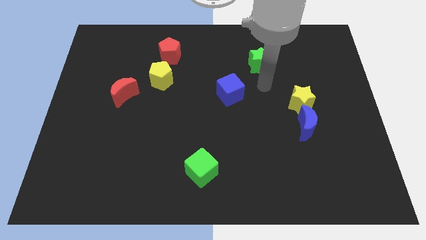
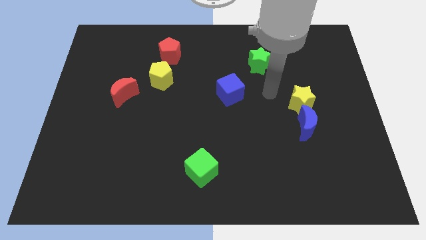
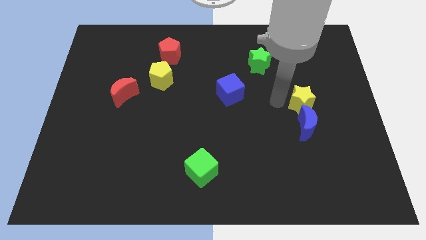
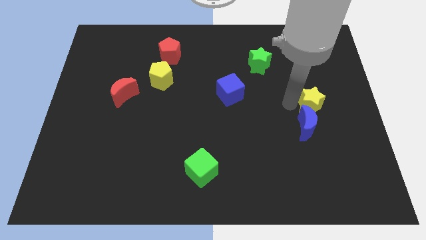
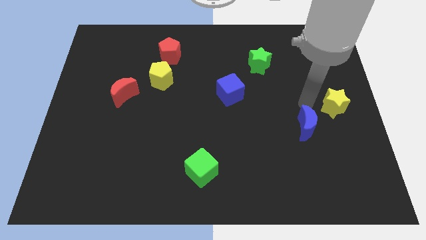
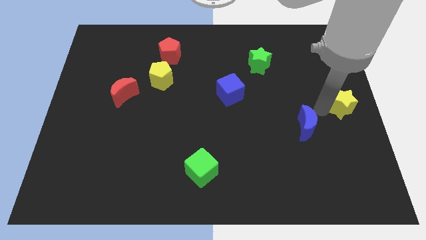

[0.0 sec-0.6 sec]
move the blue moon away from the yellow star

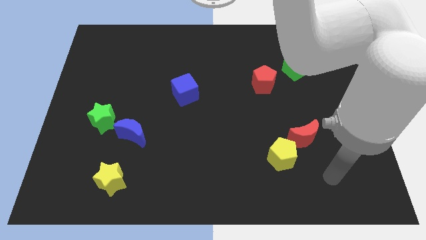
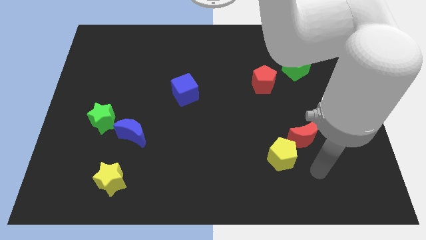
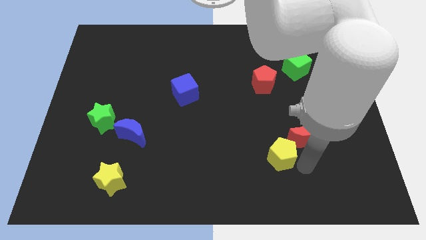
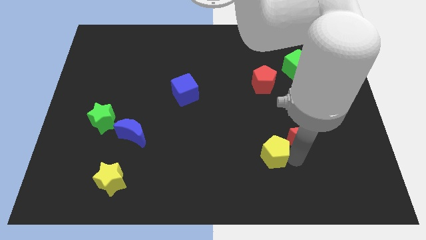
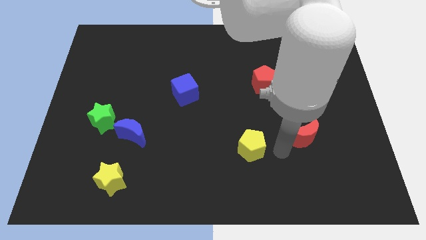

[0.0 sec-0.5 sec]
move the red moon away from the yellow pentagon

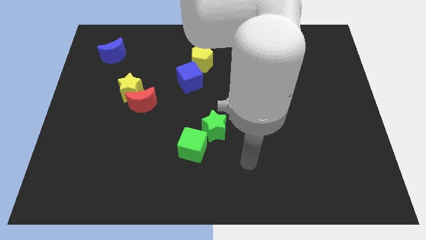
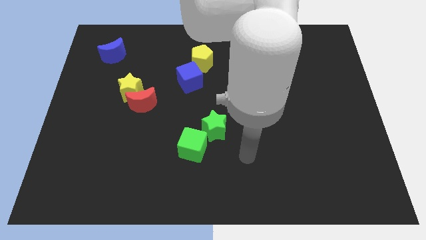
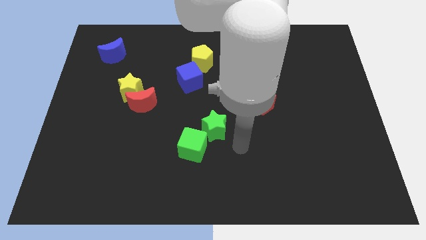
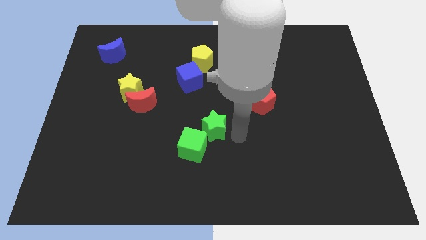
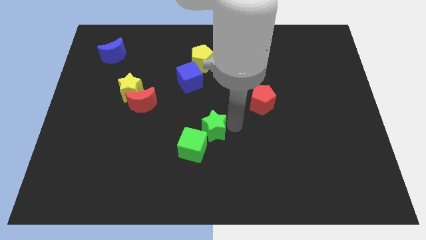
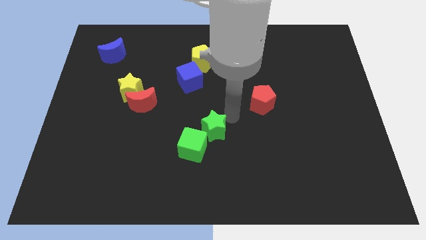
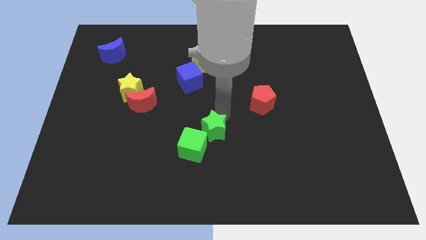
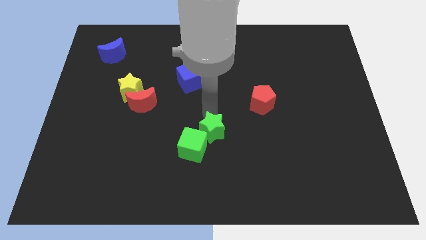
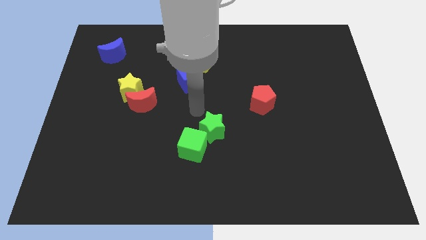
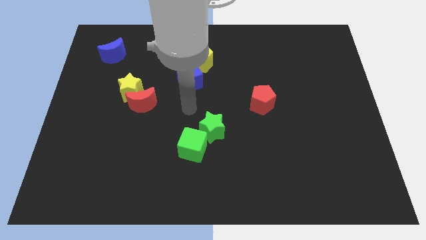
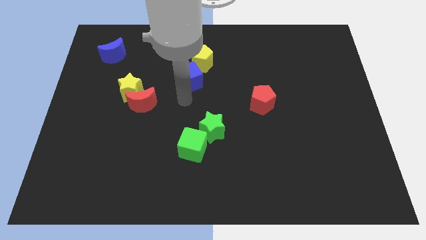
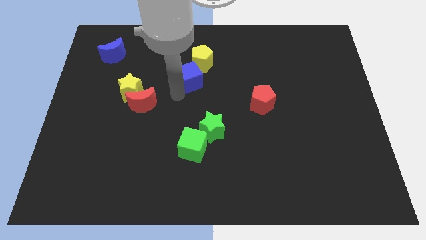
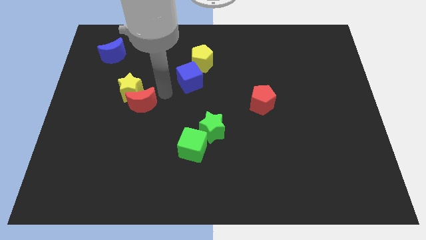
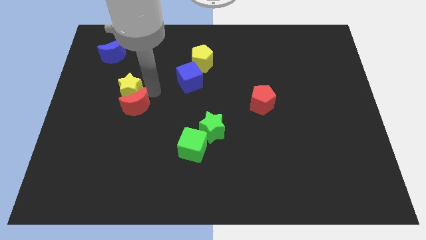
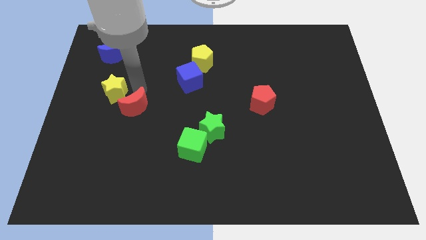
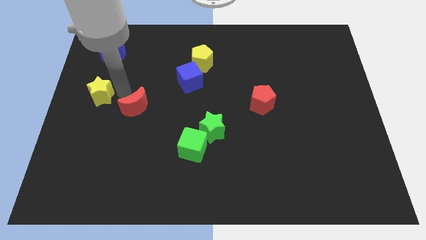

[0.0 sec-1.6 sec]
pull the red moon apart from the yellow star

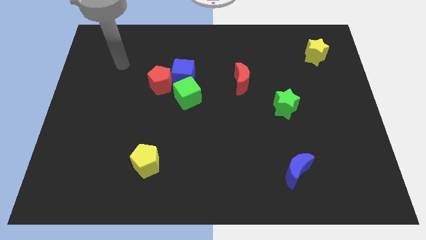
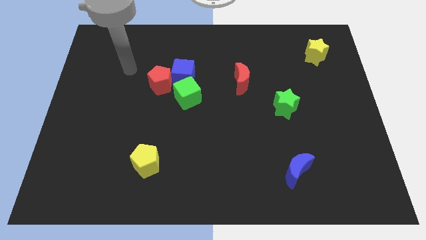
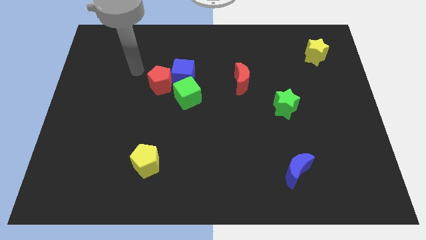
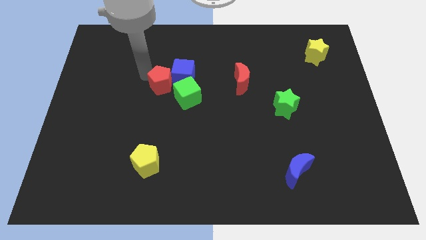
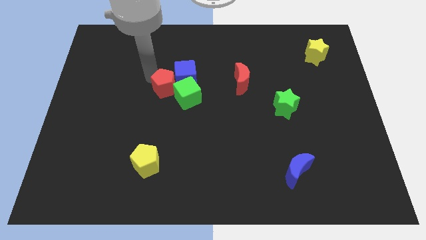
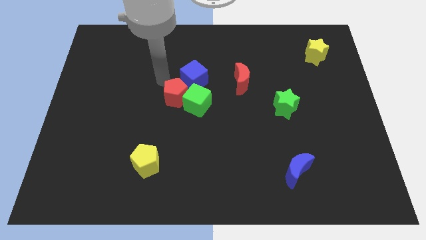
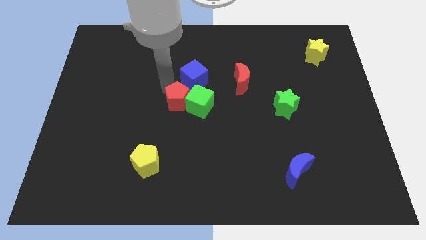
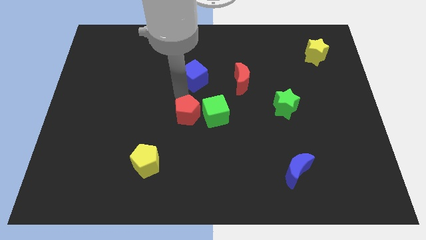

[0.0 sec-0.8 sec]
move the blue cube away from the red pentagon and green cube

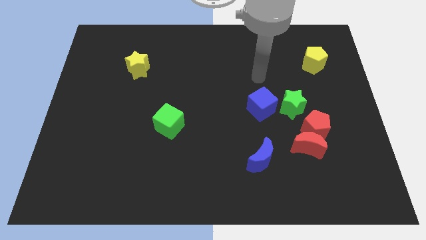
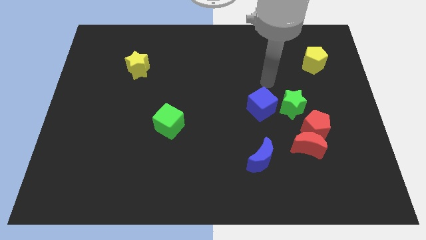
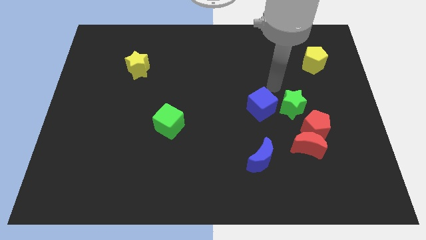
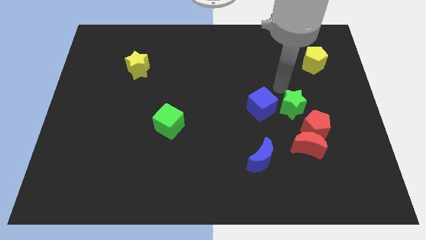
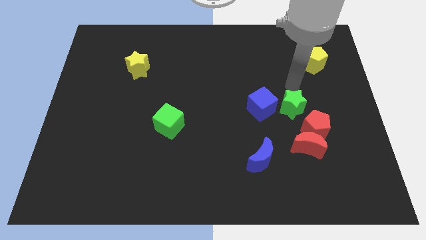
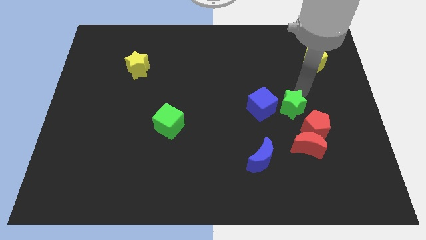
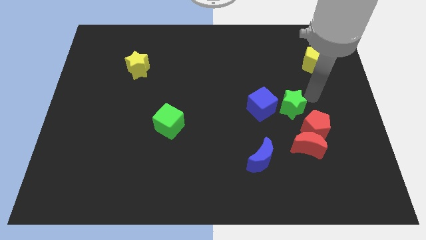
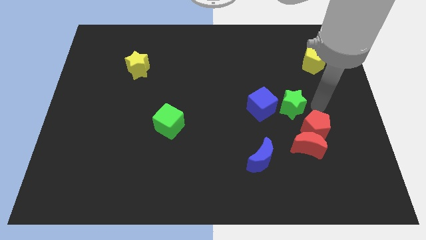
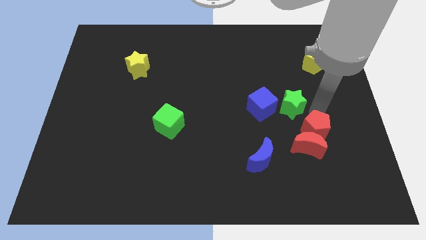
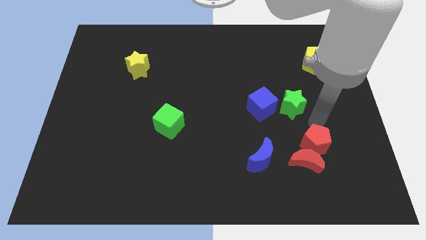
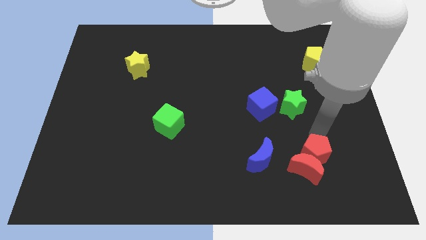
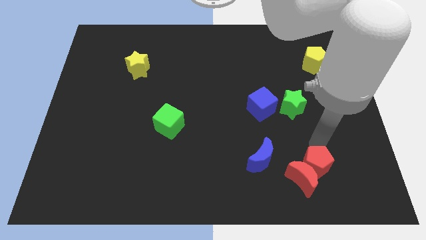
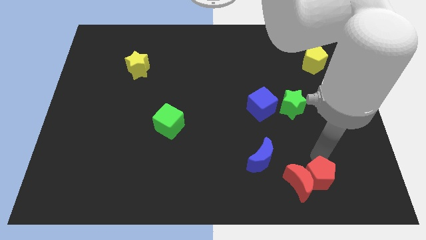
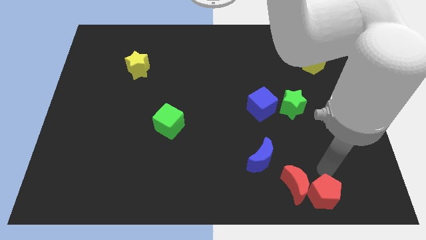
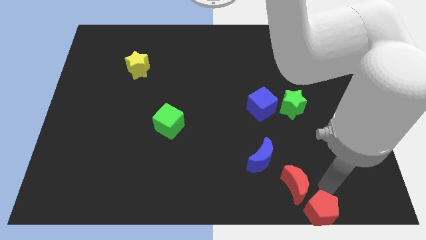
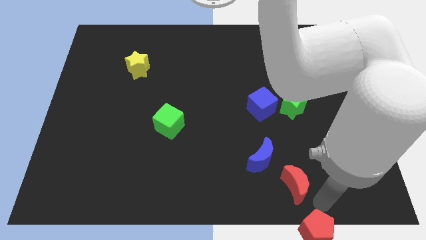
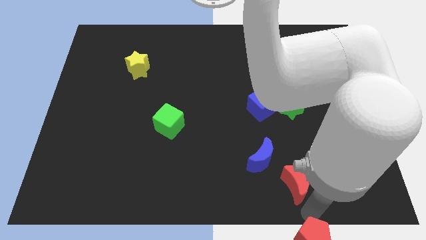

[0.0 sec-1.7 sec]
move the red moon away from the red pentagon

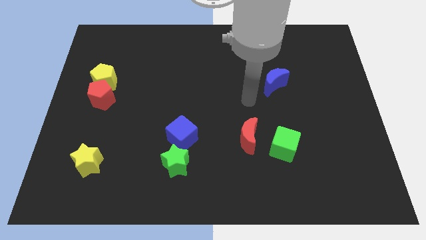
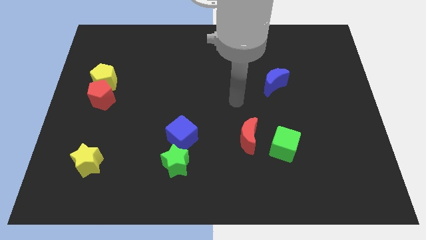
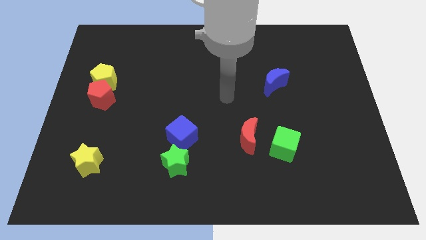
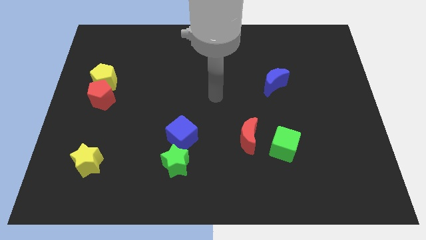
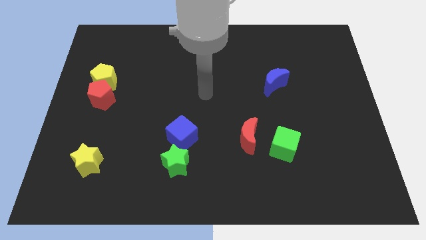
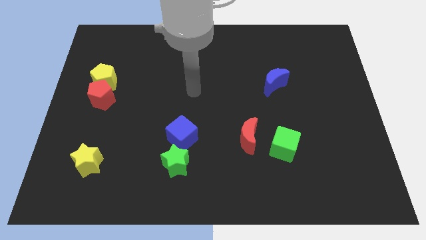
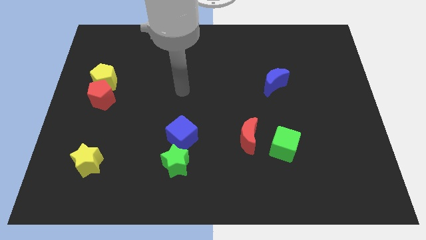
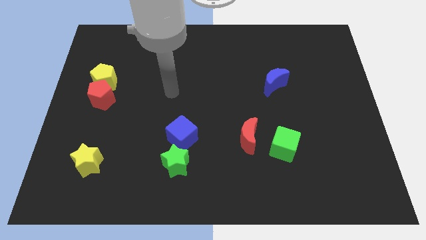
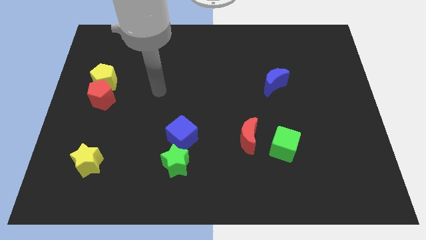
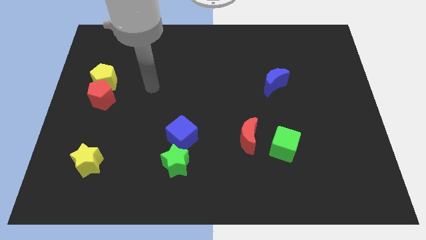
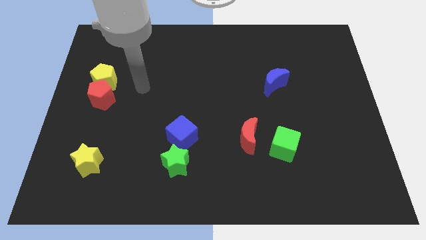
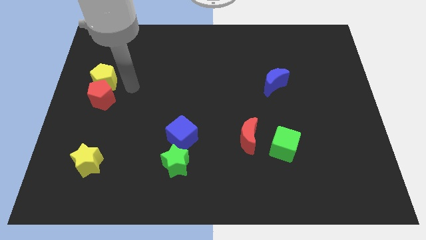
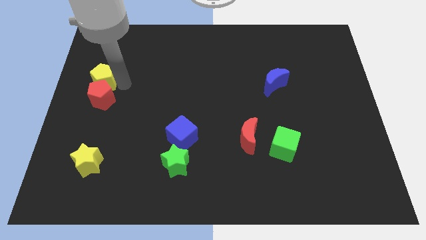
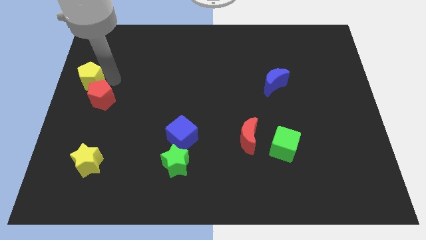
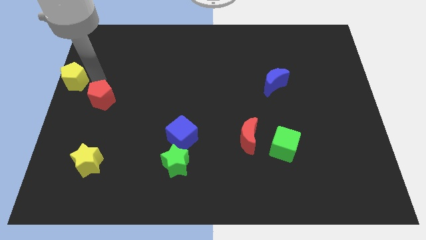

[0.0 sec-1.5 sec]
separate the red pentagon from the yellow pentagon

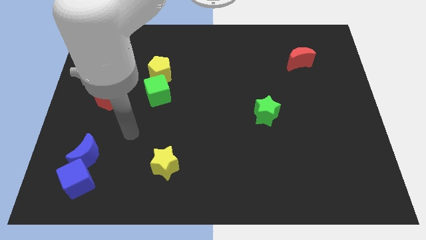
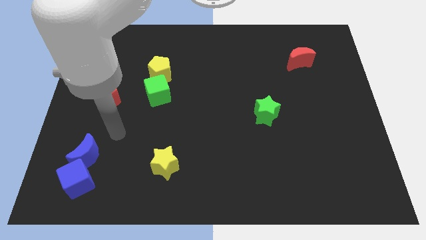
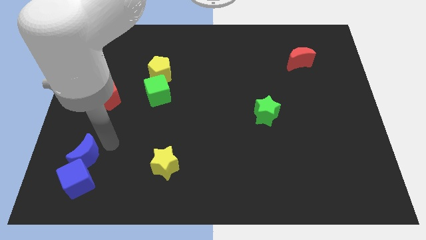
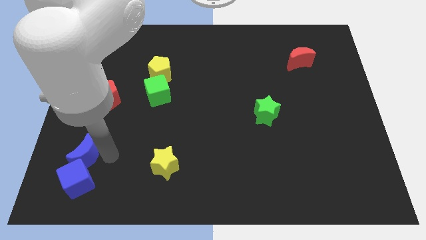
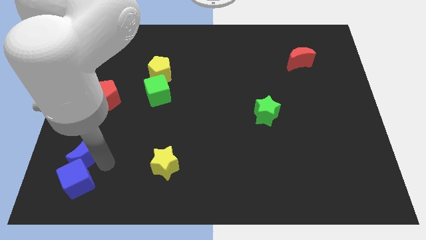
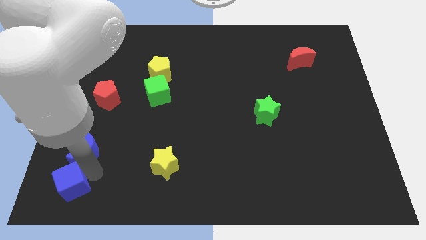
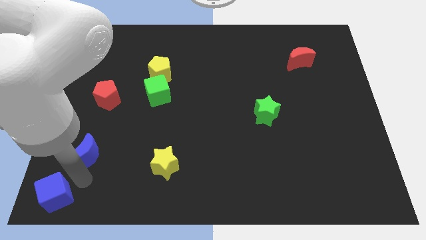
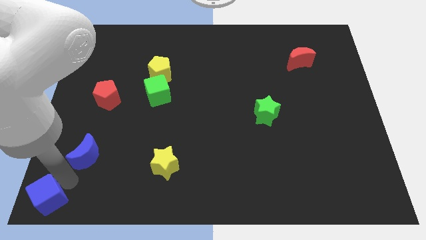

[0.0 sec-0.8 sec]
pull the blue moon apart from the blue cube

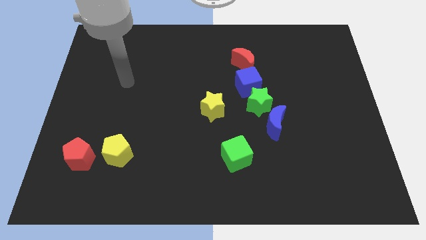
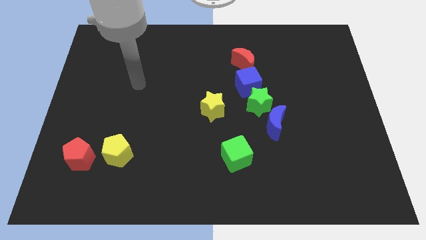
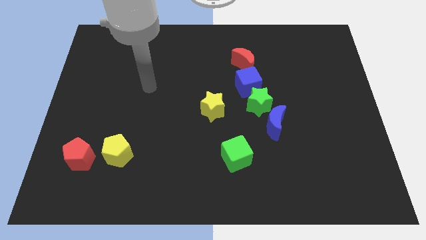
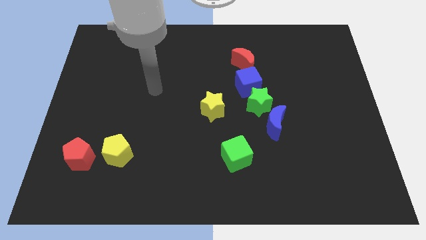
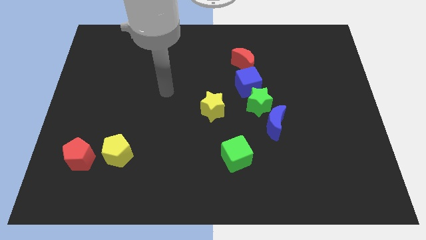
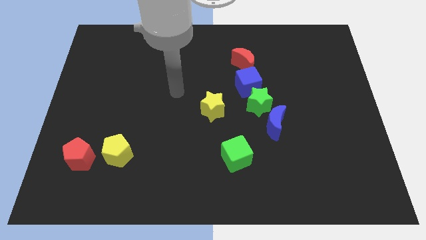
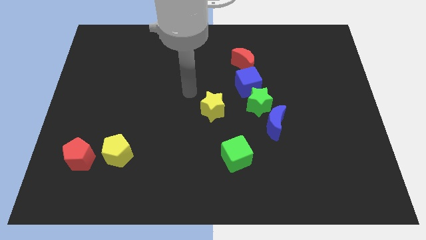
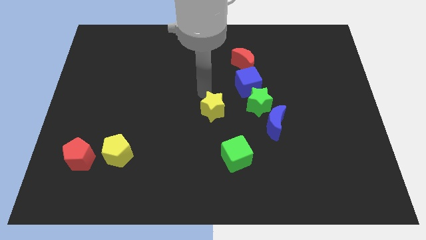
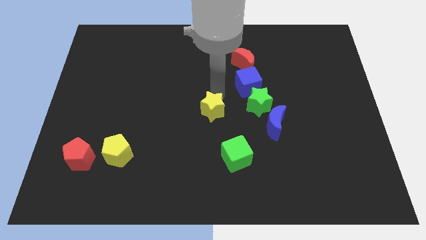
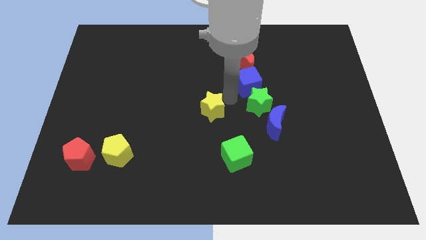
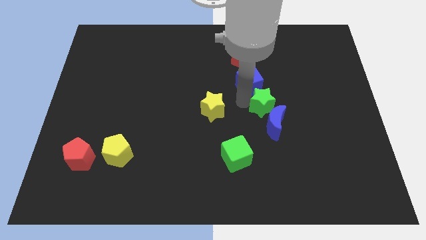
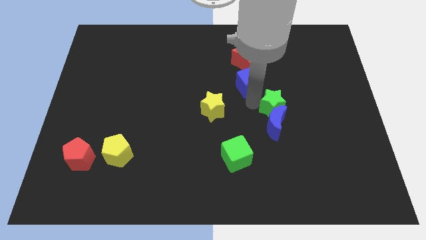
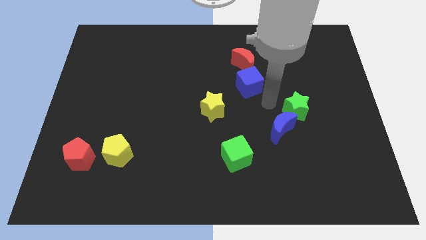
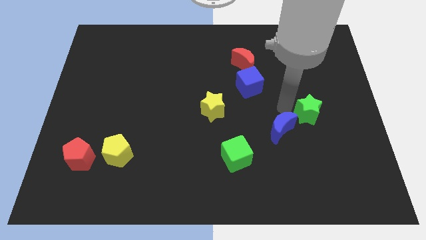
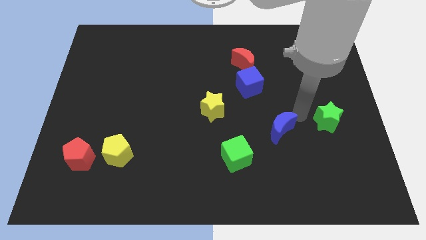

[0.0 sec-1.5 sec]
move the blue moon away from the green star

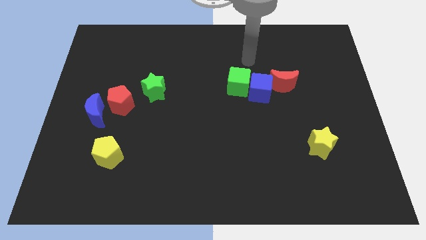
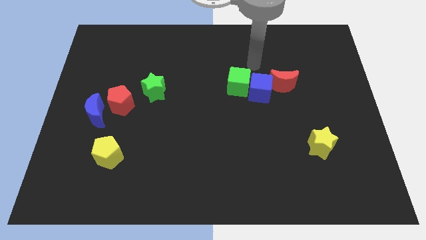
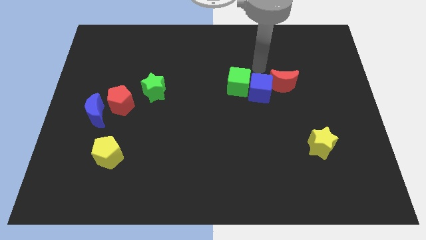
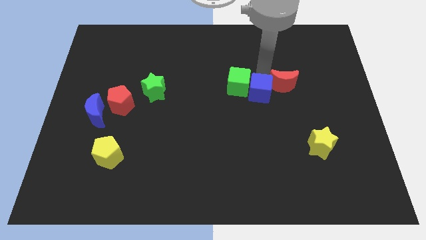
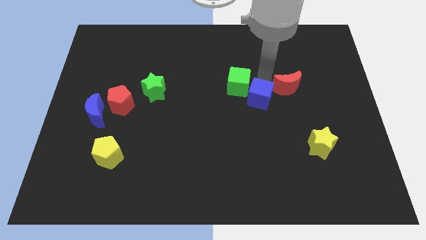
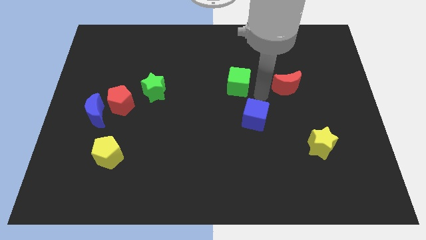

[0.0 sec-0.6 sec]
separate the green cube from the blue cube
